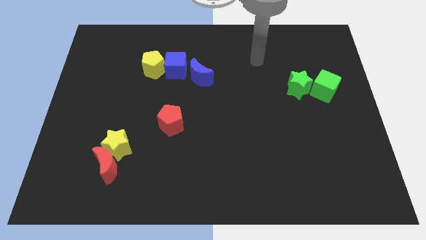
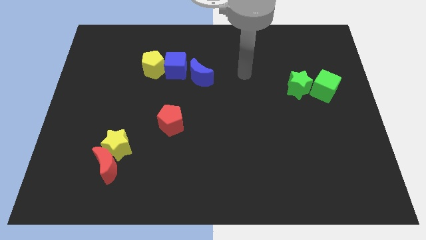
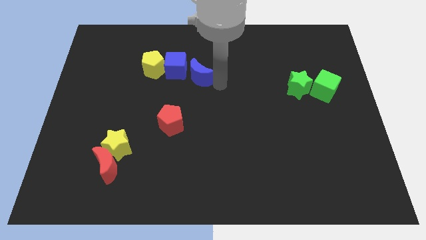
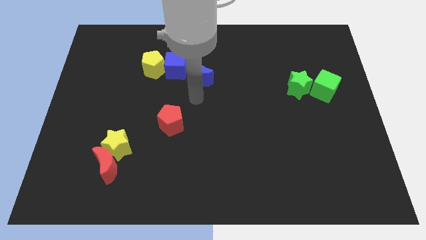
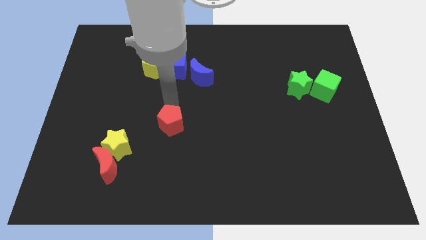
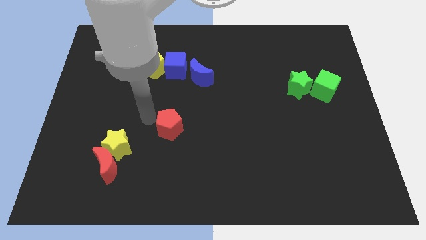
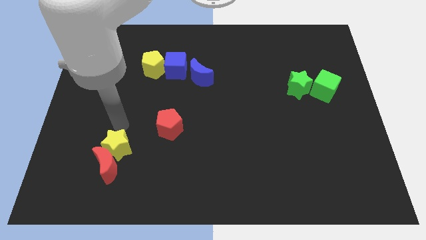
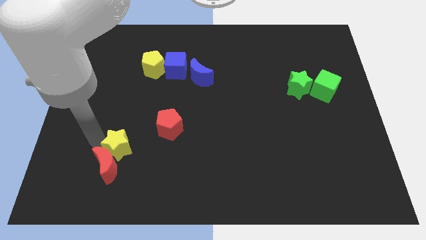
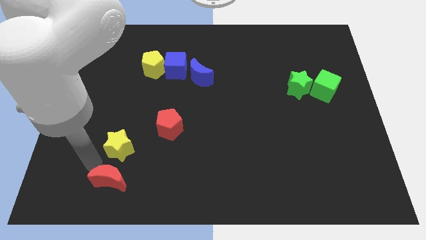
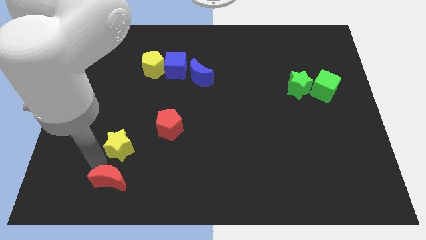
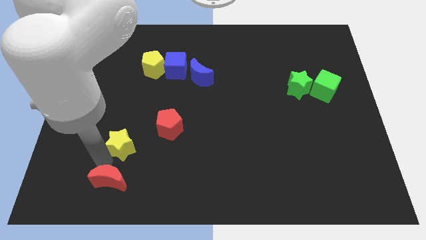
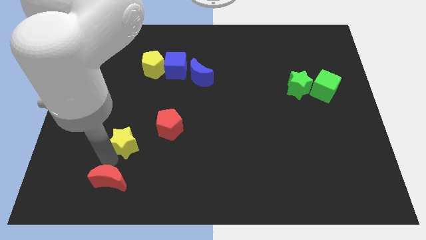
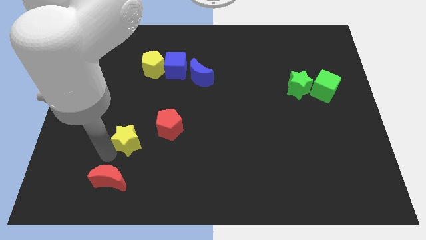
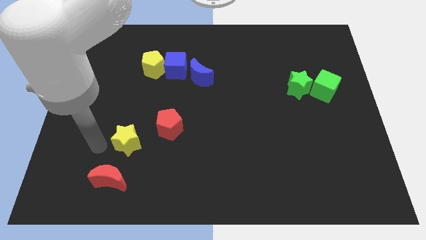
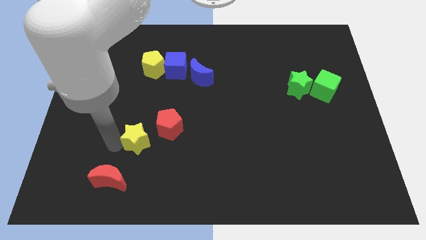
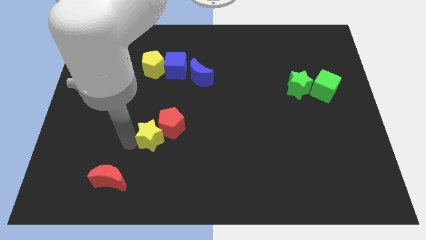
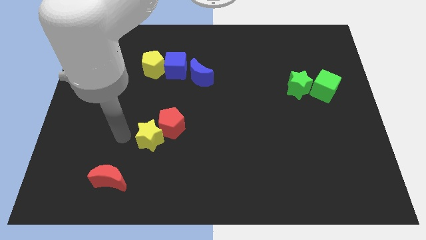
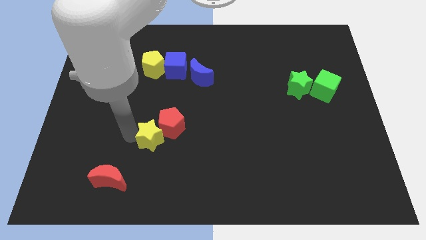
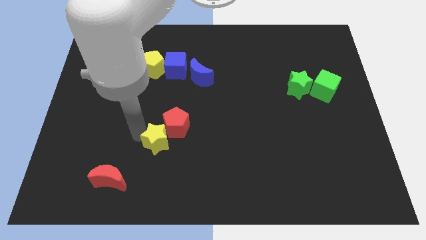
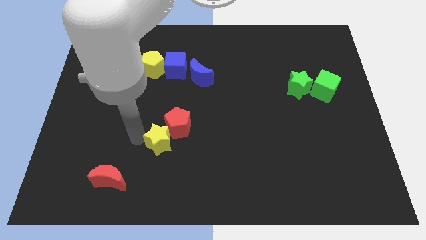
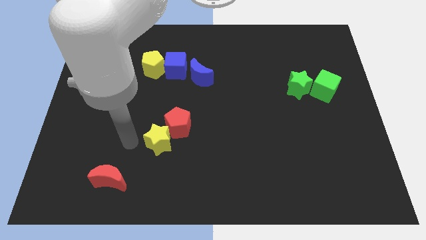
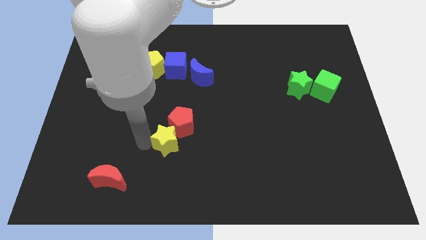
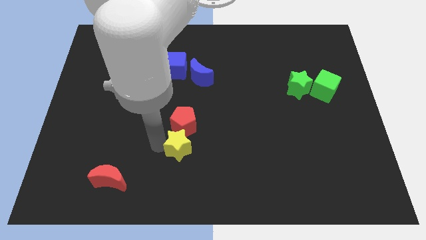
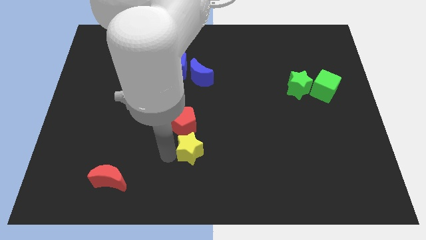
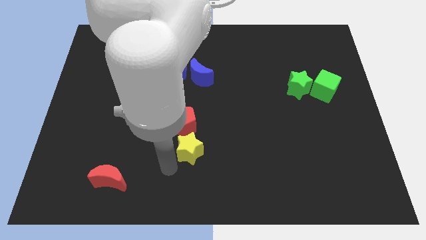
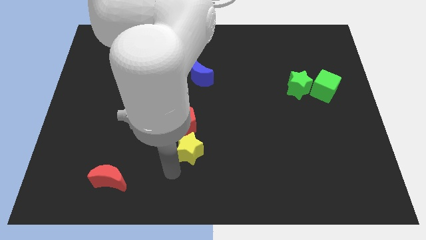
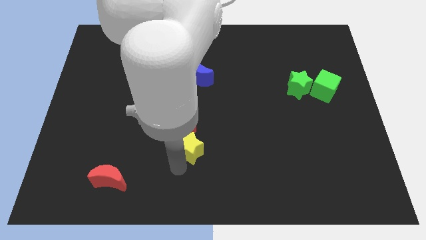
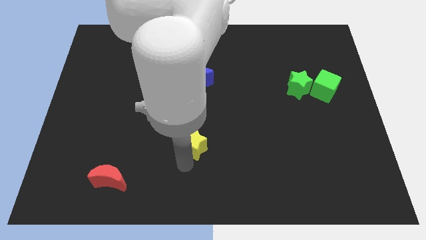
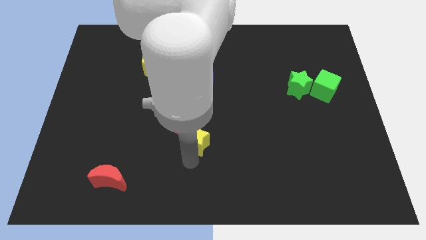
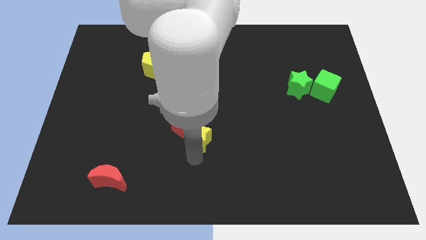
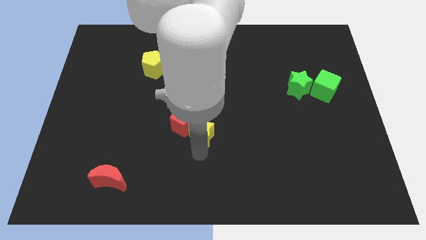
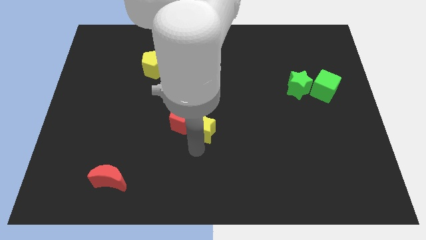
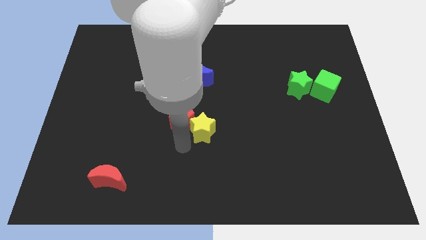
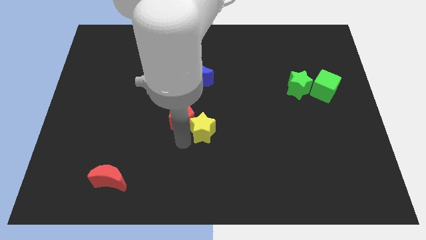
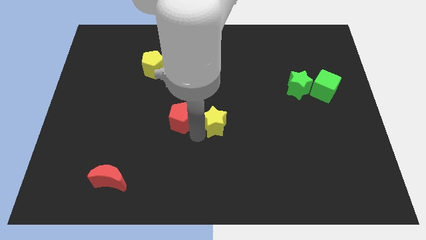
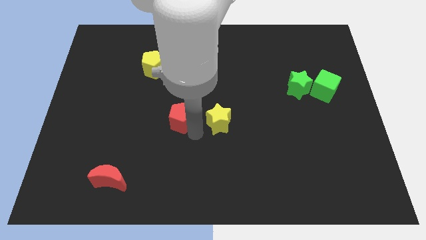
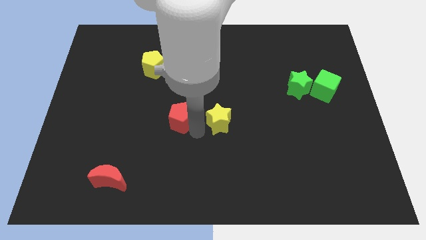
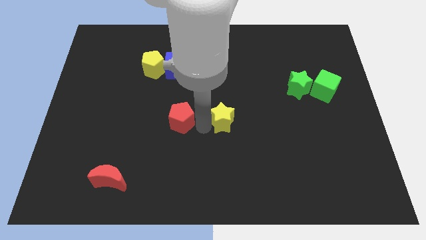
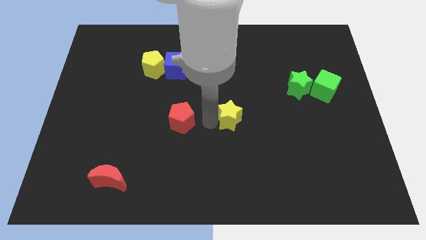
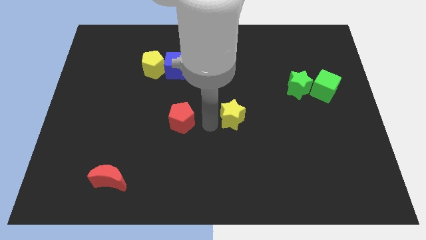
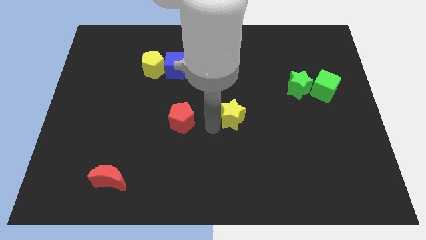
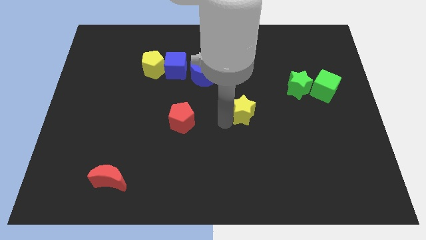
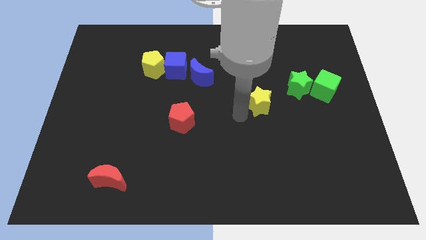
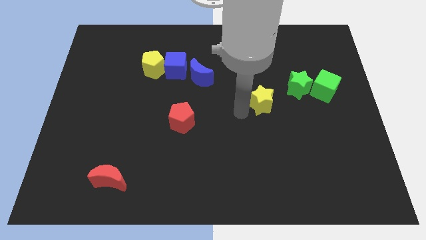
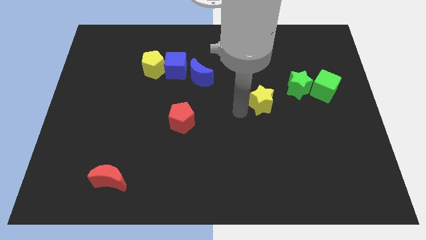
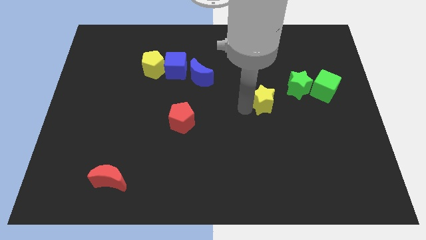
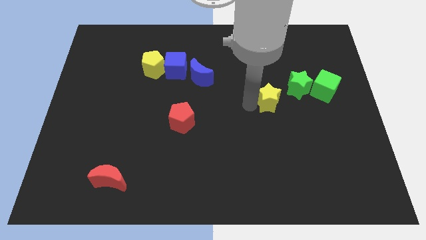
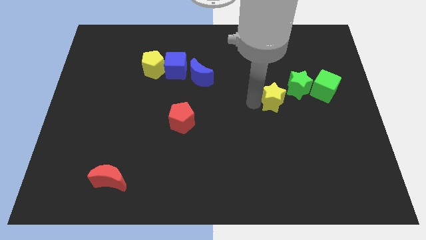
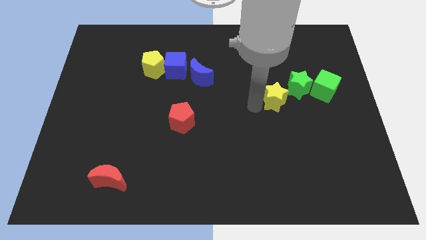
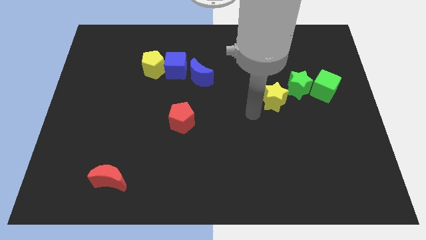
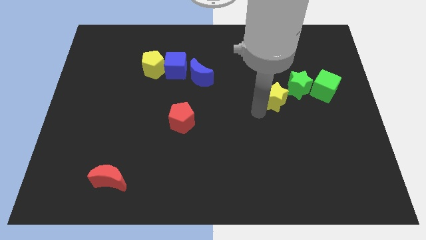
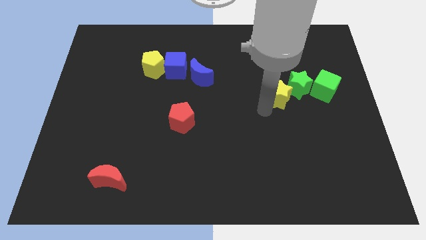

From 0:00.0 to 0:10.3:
move the yellow star to the green star

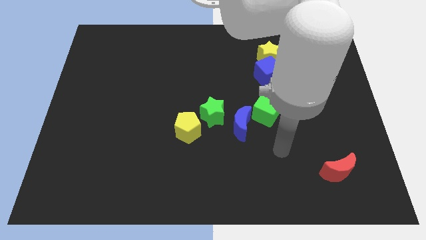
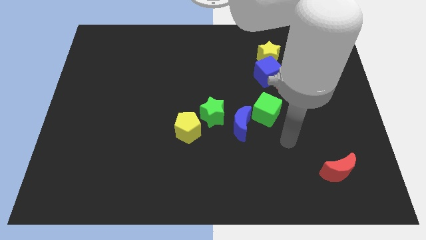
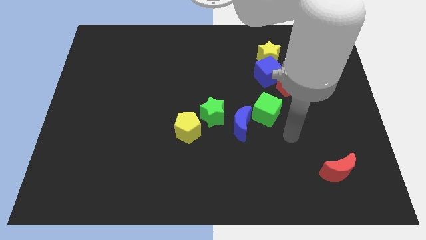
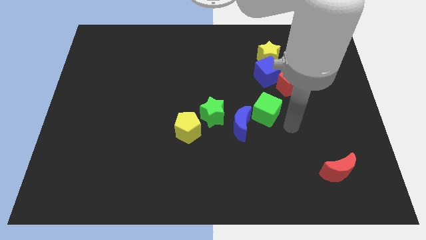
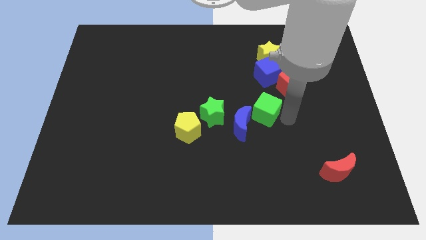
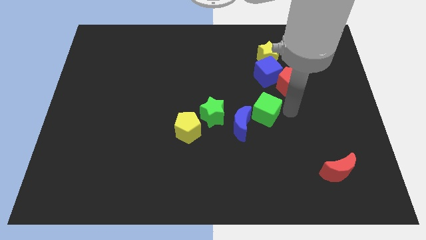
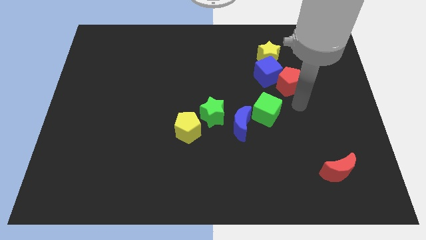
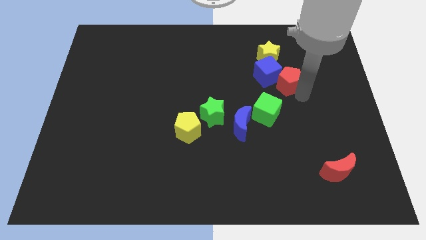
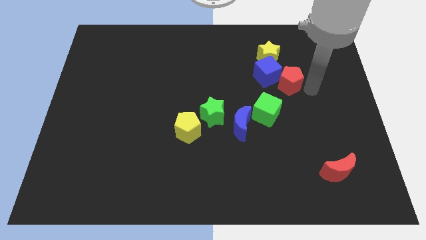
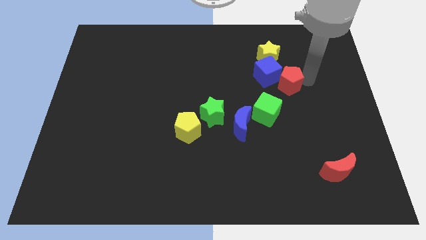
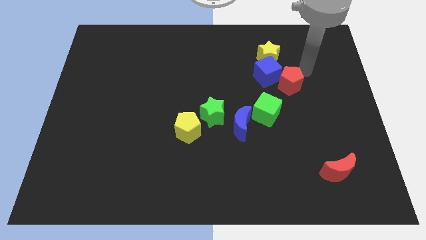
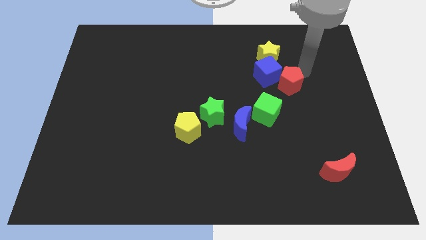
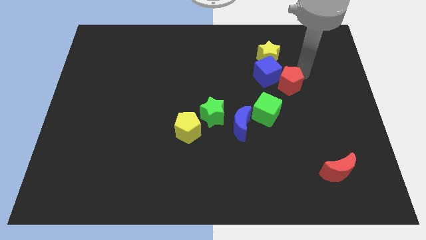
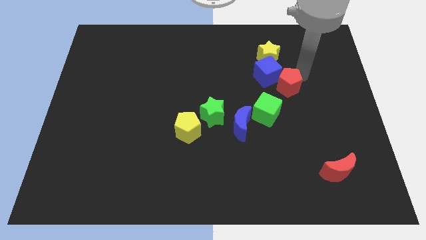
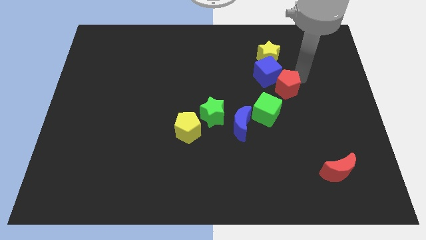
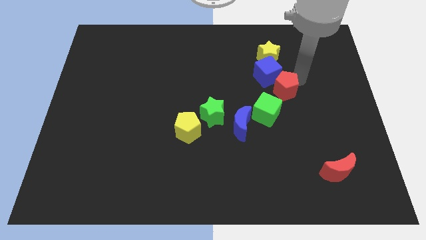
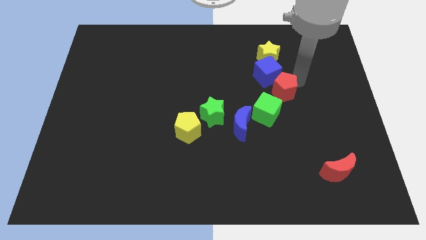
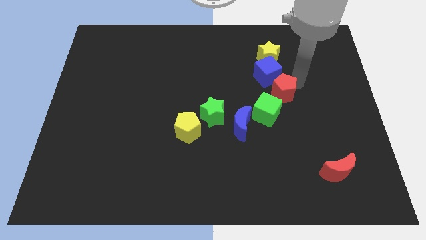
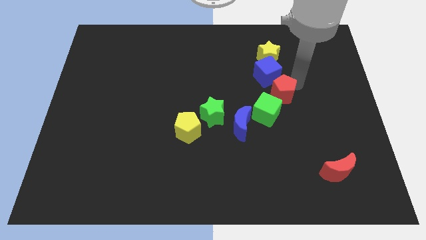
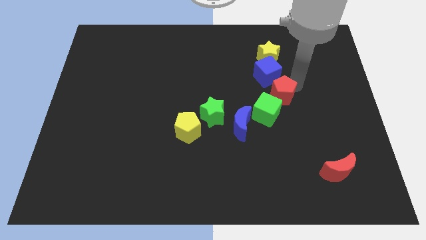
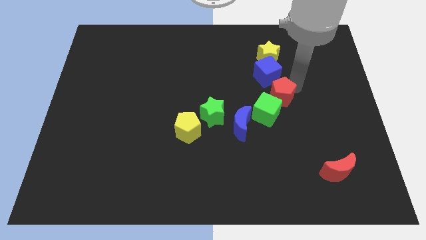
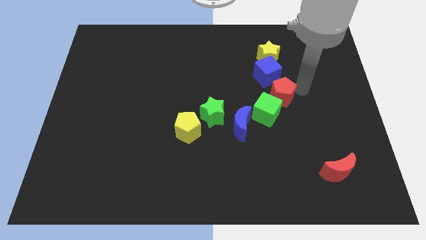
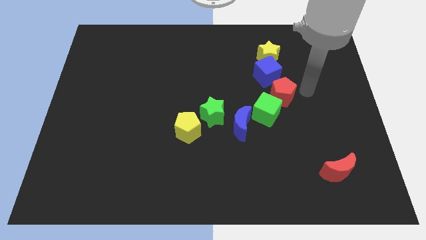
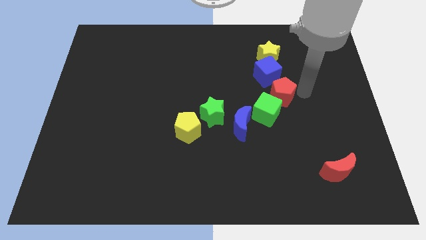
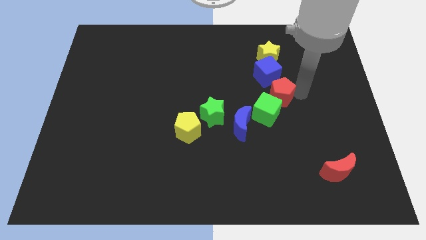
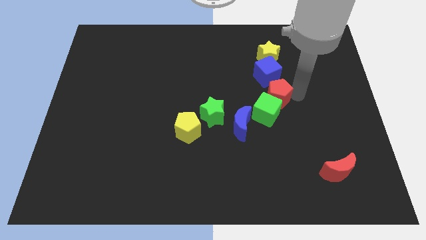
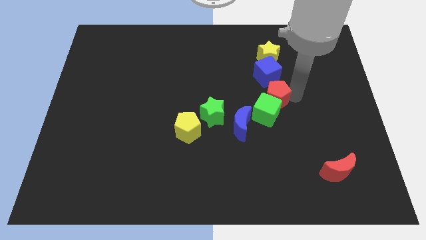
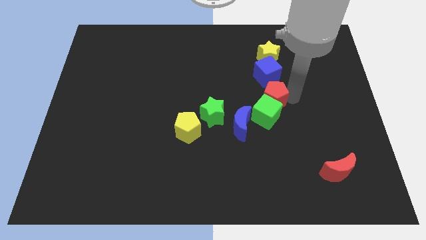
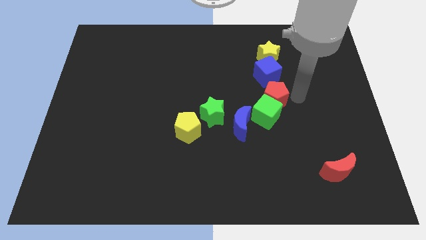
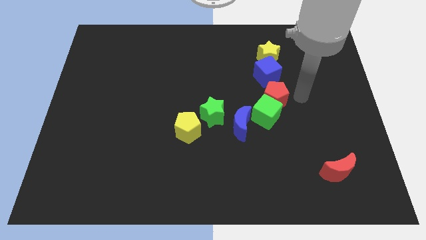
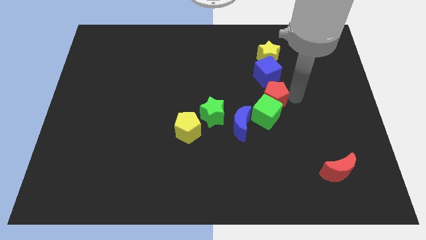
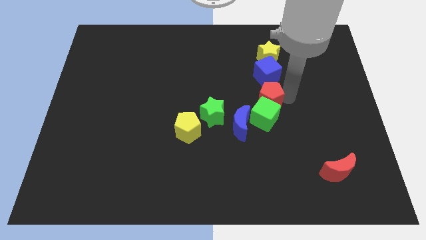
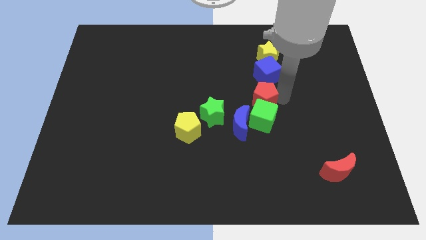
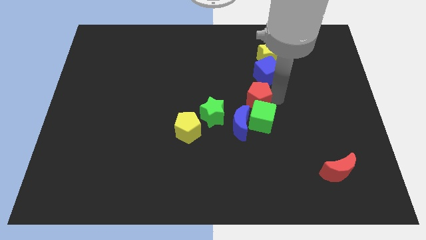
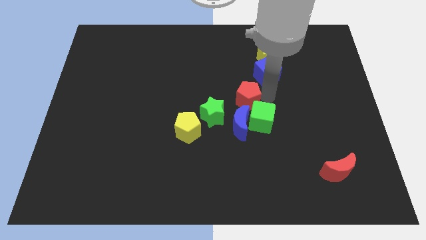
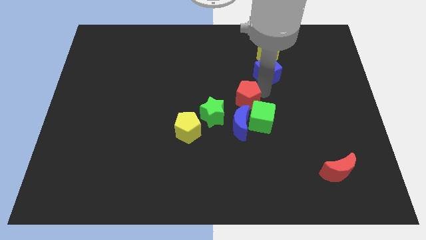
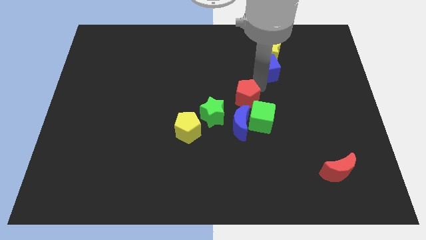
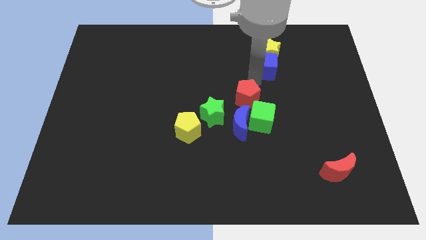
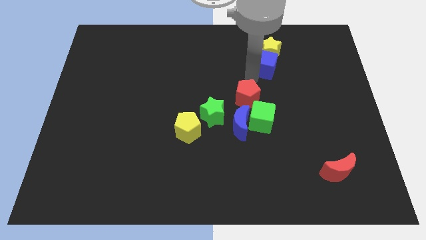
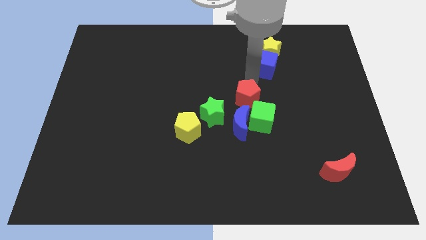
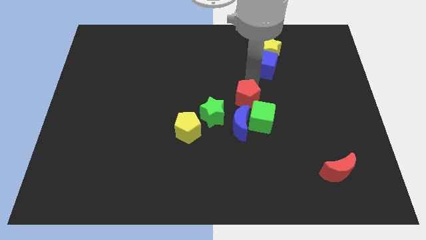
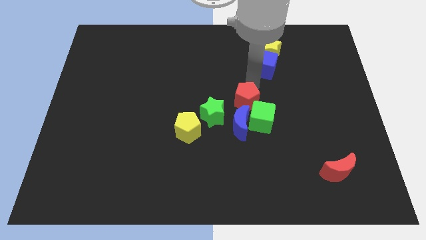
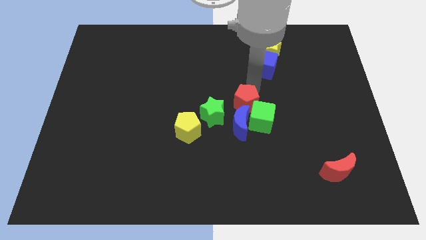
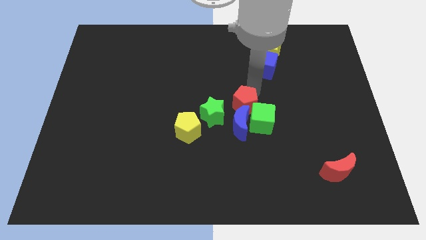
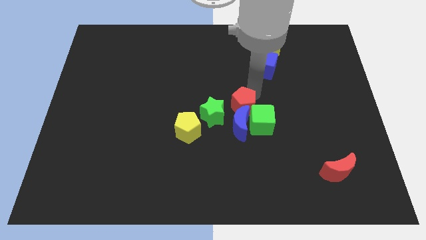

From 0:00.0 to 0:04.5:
put the red pentagon towards the blue moon
